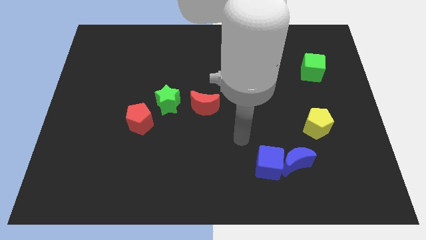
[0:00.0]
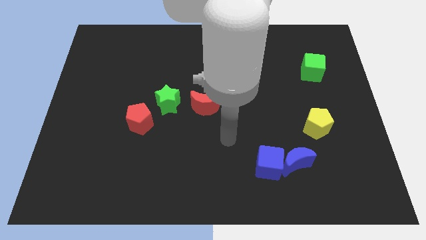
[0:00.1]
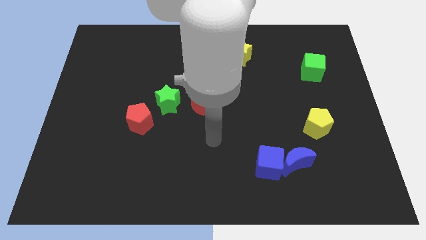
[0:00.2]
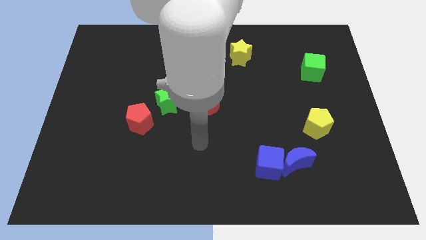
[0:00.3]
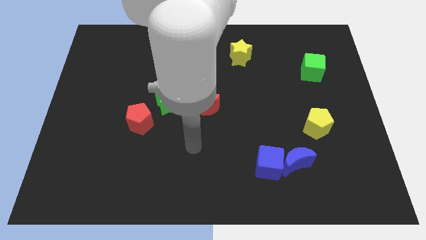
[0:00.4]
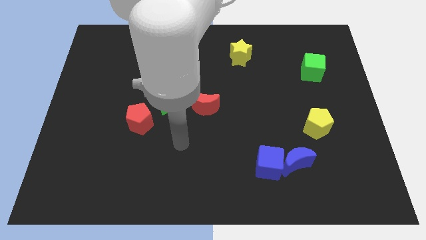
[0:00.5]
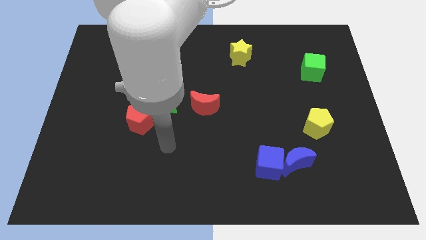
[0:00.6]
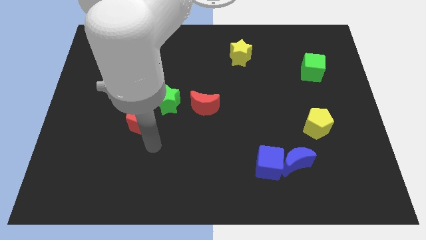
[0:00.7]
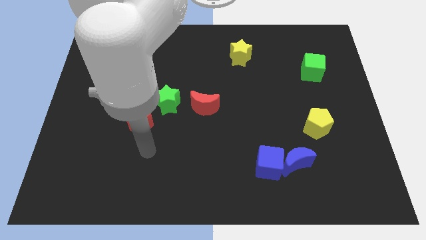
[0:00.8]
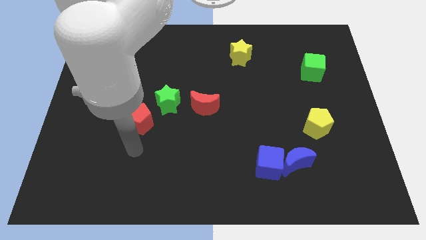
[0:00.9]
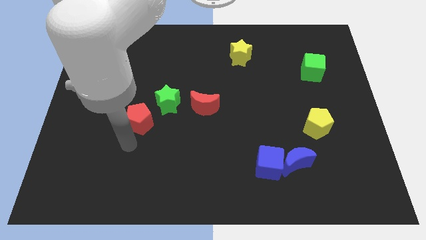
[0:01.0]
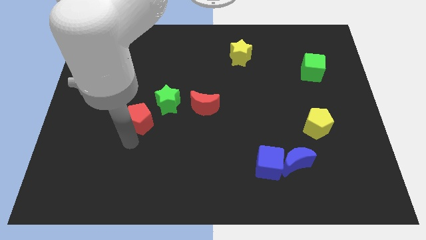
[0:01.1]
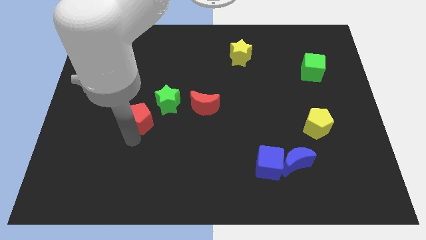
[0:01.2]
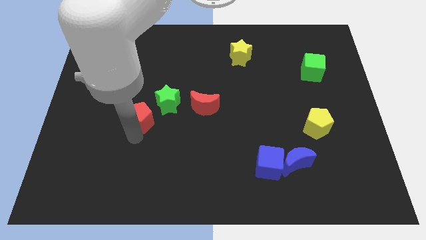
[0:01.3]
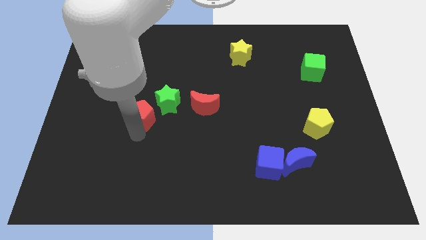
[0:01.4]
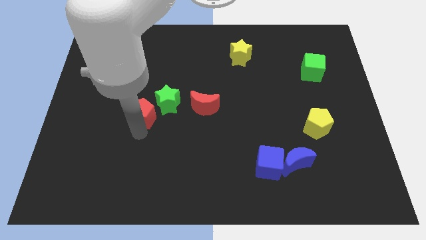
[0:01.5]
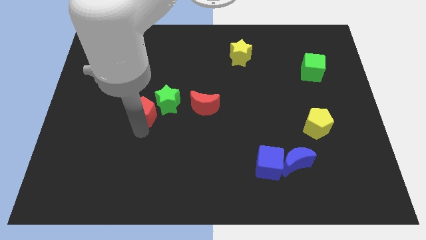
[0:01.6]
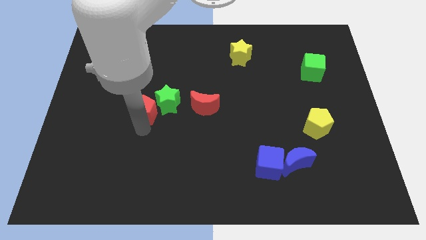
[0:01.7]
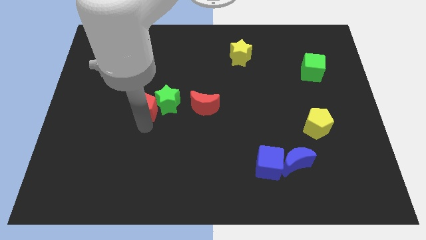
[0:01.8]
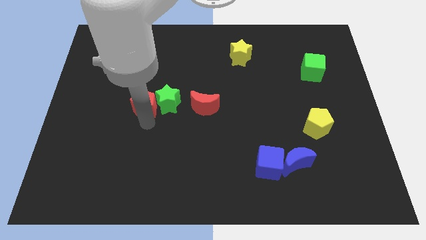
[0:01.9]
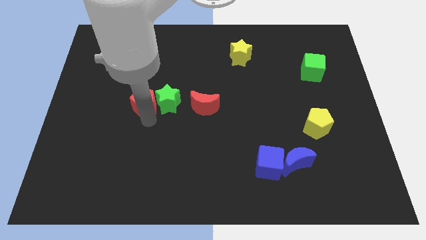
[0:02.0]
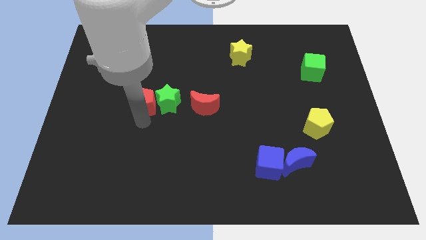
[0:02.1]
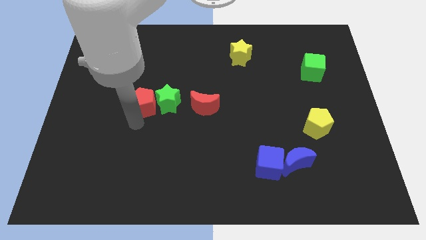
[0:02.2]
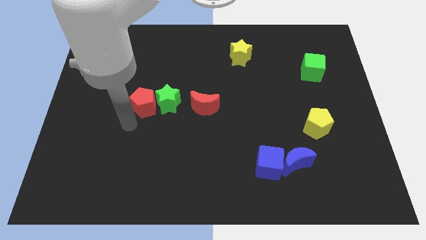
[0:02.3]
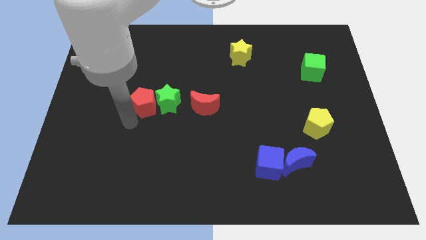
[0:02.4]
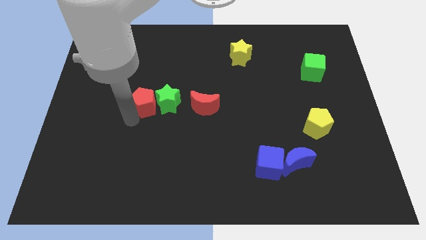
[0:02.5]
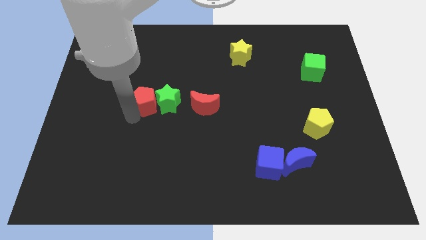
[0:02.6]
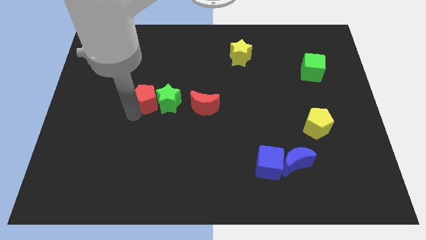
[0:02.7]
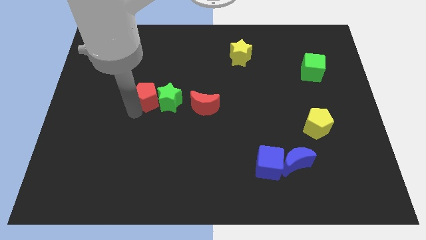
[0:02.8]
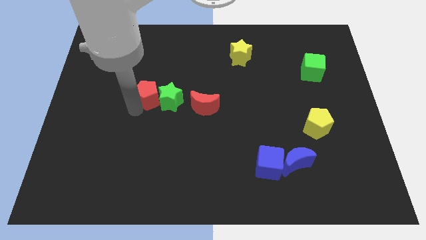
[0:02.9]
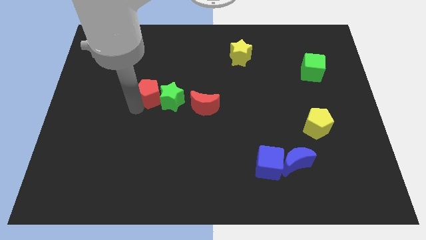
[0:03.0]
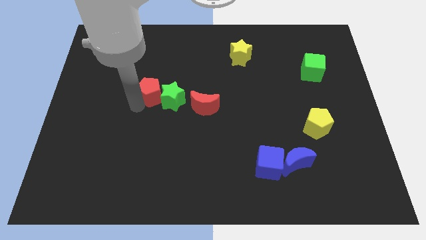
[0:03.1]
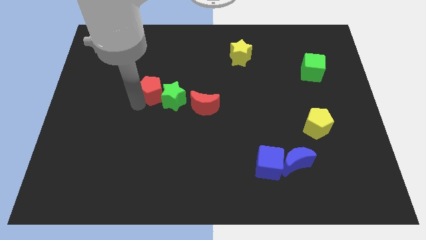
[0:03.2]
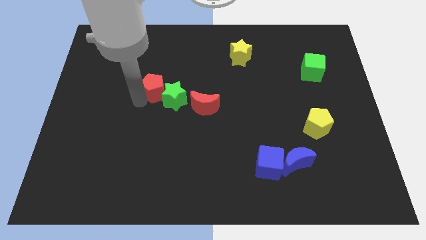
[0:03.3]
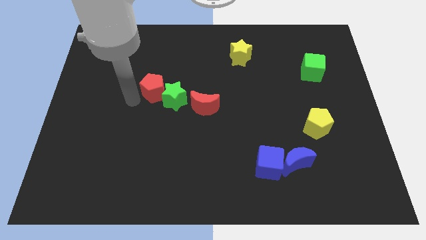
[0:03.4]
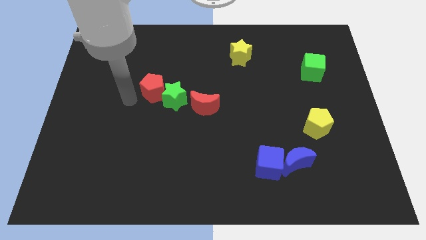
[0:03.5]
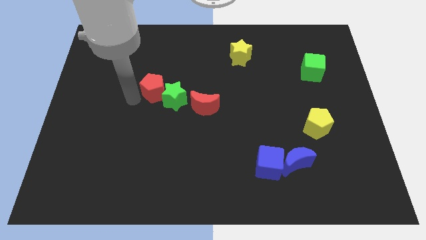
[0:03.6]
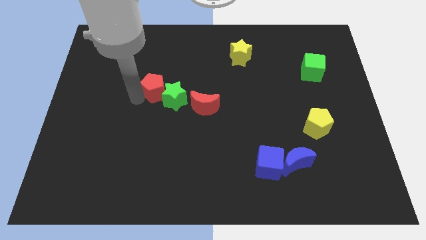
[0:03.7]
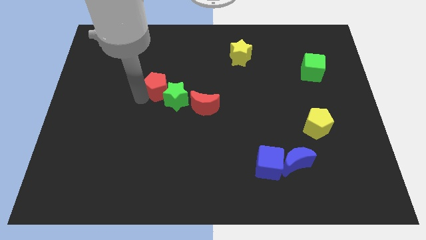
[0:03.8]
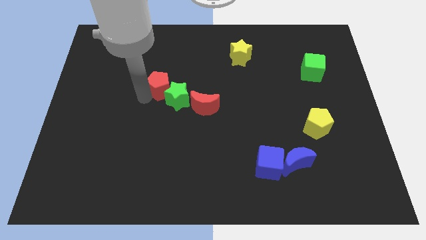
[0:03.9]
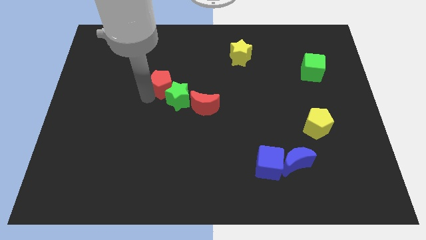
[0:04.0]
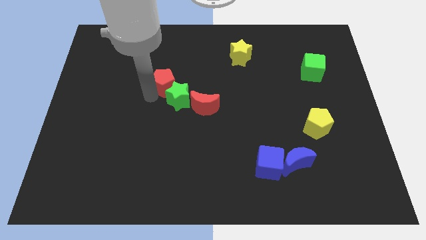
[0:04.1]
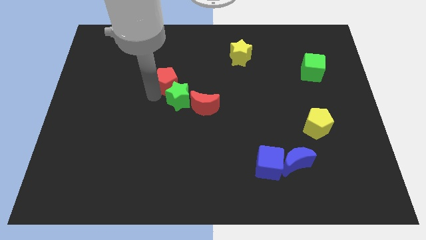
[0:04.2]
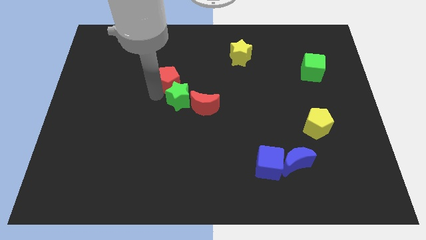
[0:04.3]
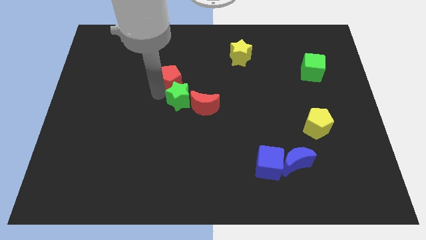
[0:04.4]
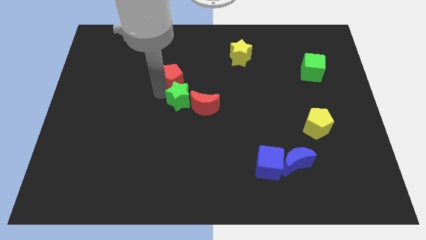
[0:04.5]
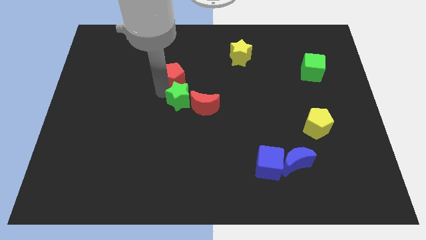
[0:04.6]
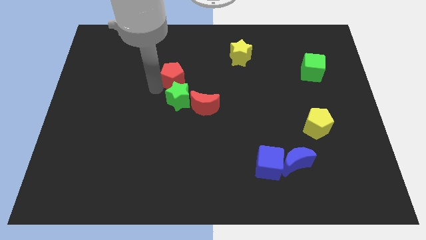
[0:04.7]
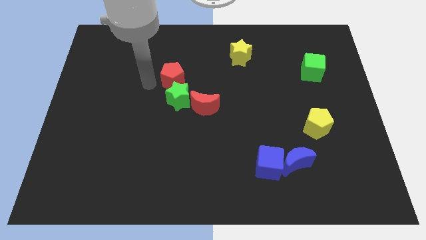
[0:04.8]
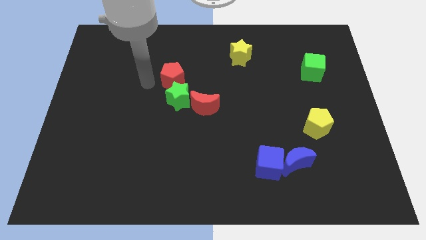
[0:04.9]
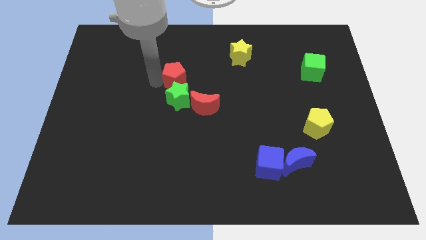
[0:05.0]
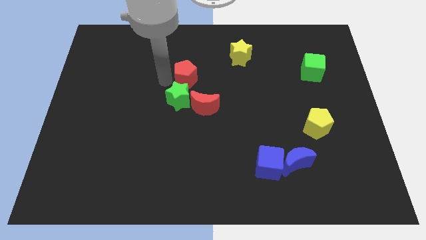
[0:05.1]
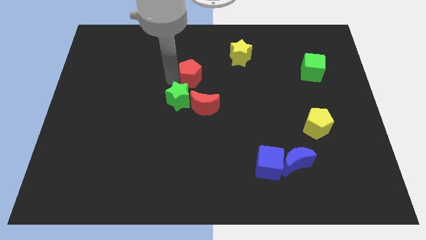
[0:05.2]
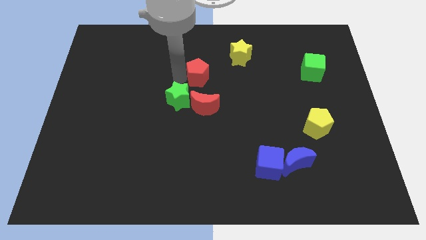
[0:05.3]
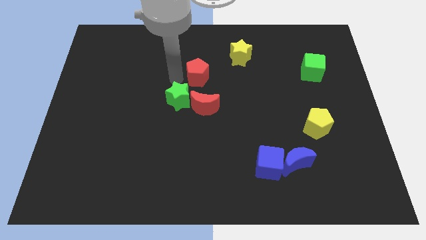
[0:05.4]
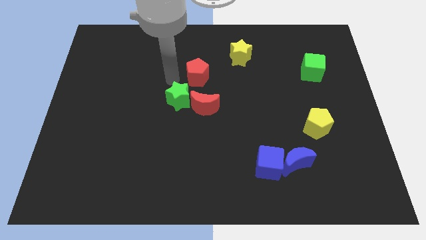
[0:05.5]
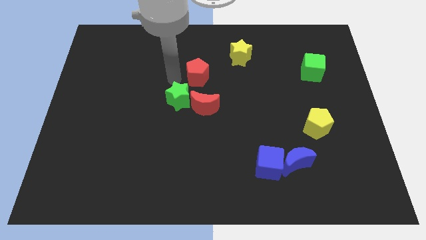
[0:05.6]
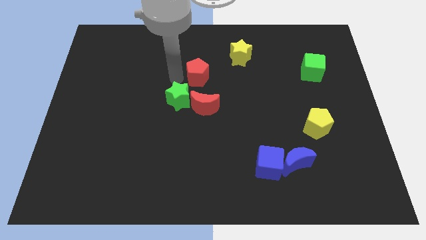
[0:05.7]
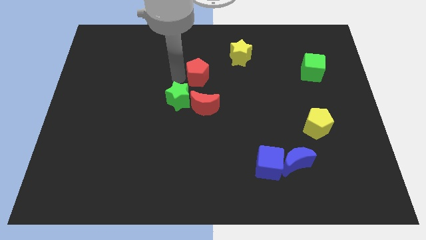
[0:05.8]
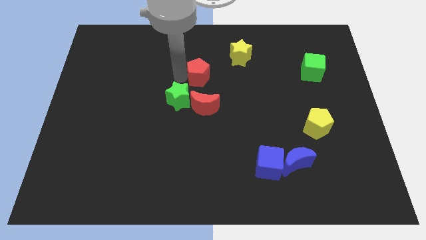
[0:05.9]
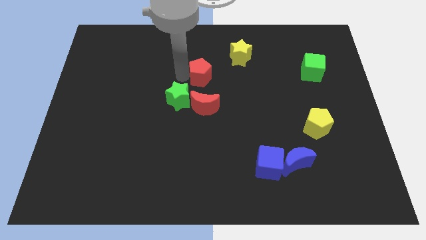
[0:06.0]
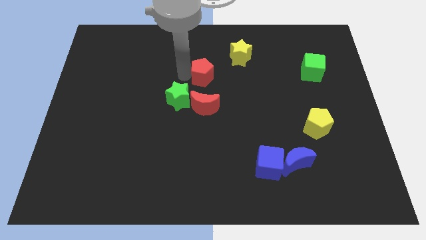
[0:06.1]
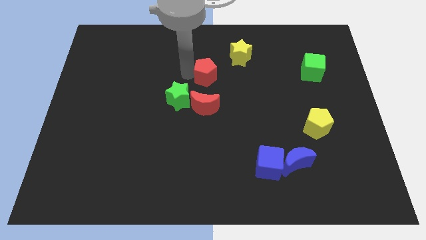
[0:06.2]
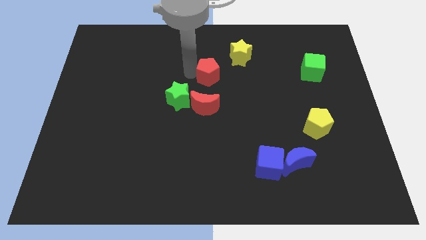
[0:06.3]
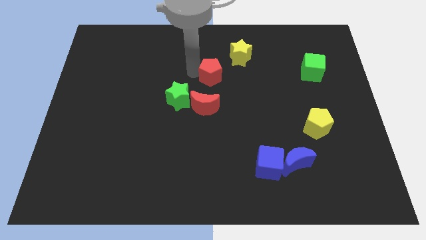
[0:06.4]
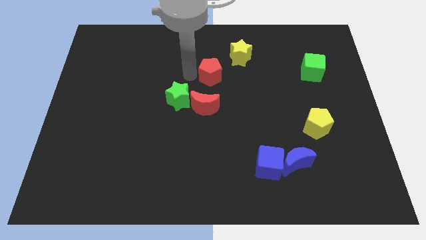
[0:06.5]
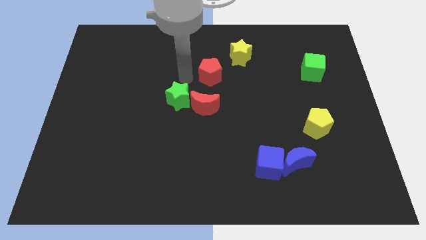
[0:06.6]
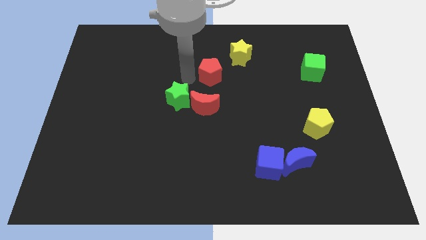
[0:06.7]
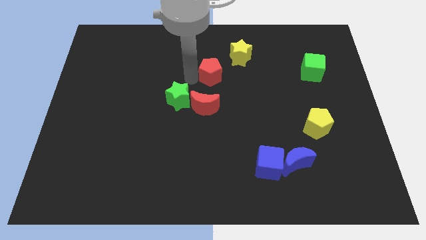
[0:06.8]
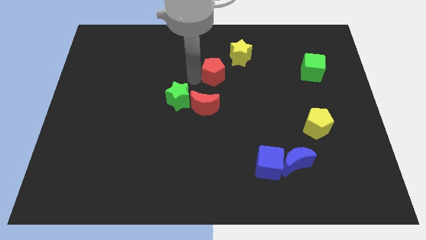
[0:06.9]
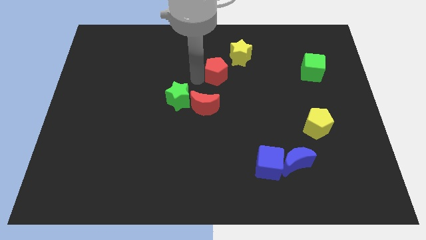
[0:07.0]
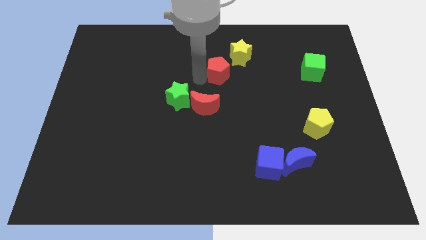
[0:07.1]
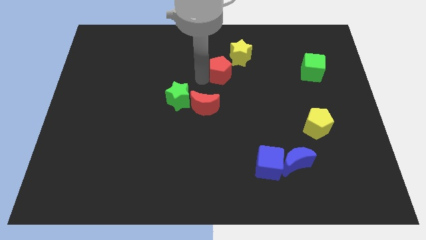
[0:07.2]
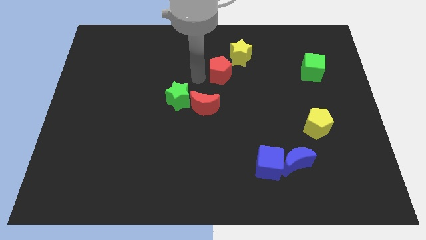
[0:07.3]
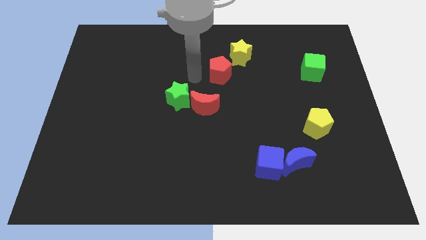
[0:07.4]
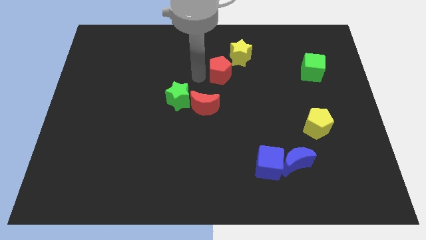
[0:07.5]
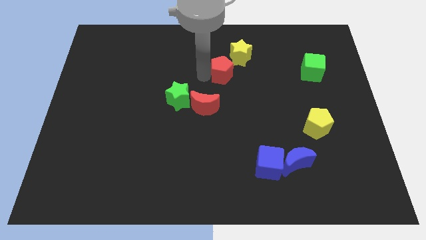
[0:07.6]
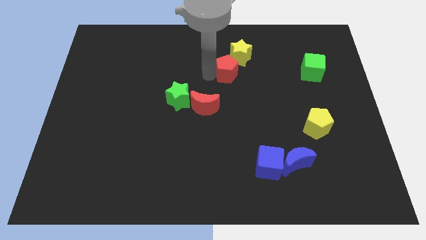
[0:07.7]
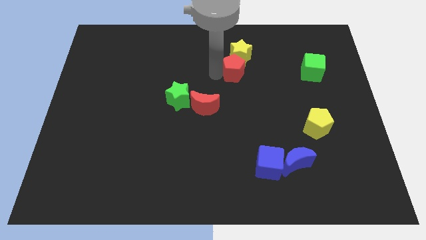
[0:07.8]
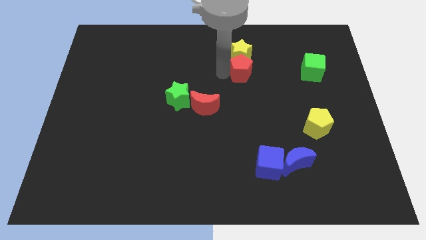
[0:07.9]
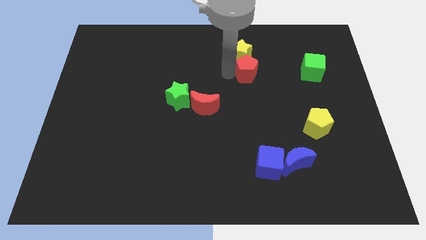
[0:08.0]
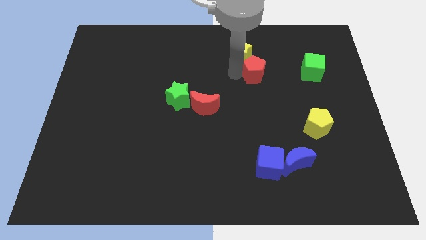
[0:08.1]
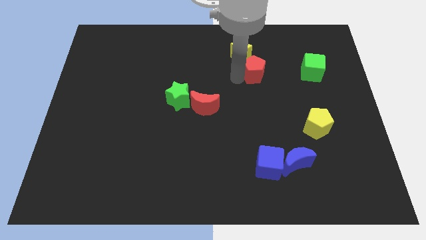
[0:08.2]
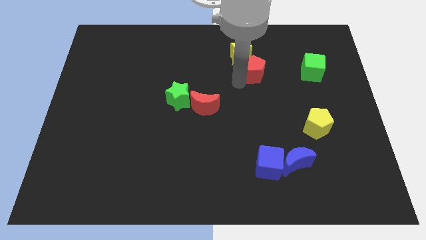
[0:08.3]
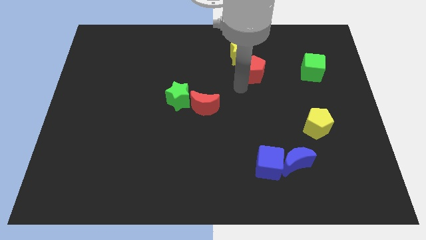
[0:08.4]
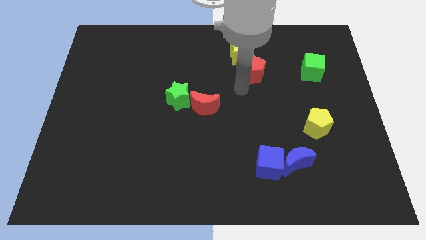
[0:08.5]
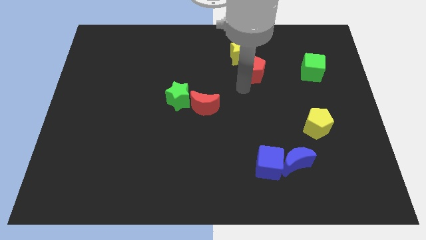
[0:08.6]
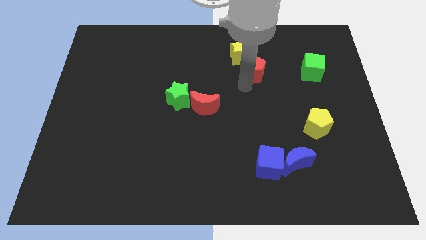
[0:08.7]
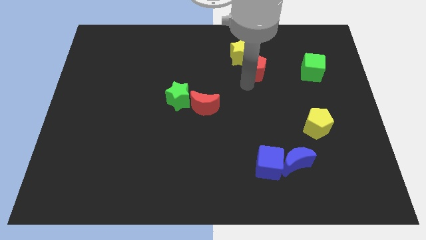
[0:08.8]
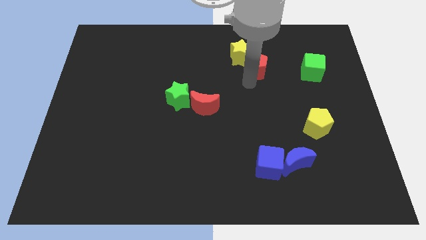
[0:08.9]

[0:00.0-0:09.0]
put the red pentagon right of the yellow star
